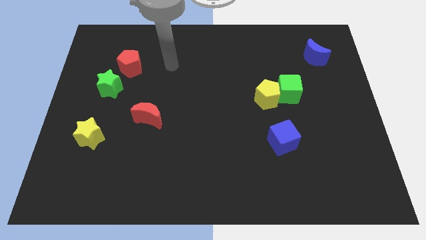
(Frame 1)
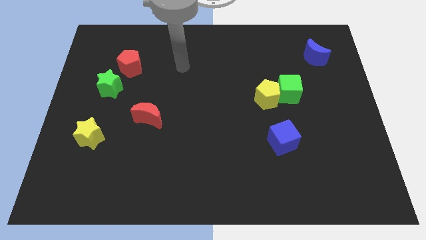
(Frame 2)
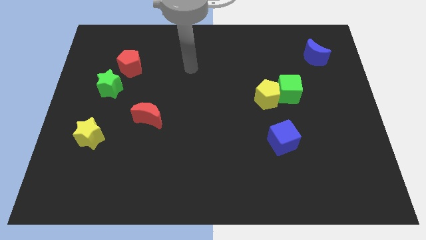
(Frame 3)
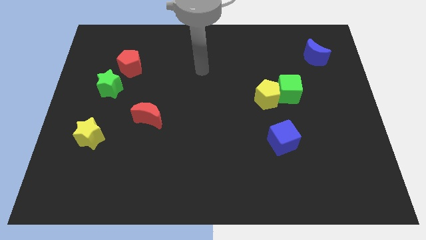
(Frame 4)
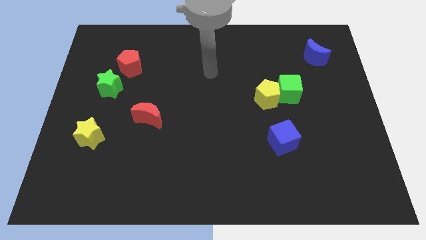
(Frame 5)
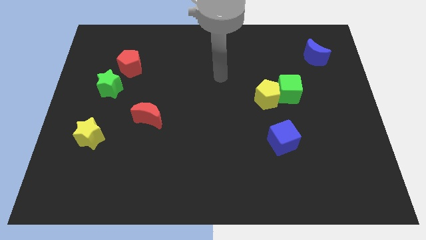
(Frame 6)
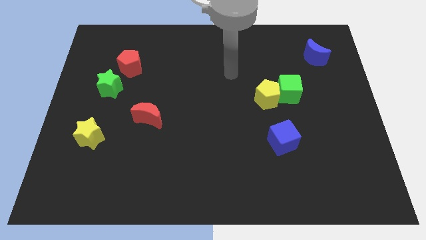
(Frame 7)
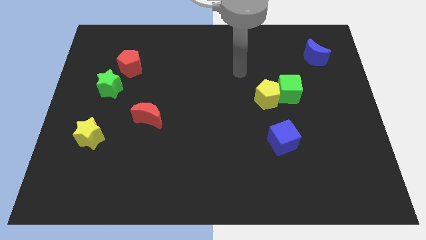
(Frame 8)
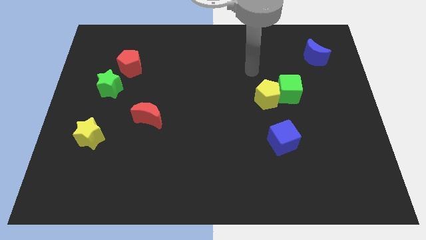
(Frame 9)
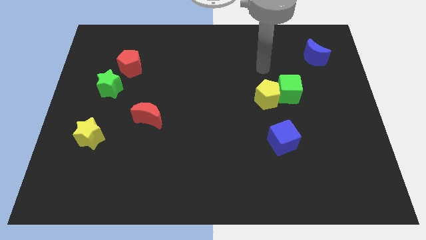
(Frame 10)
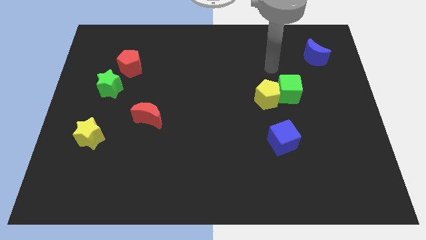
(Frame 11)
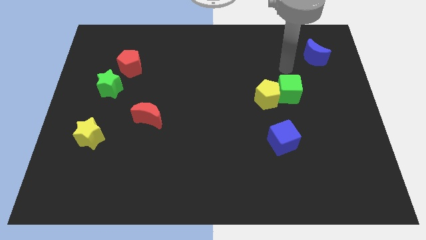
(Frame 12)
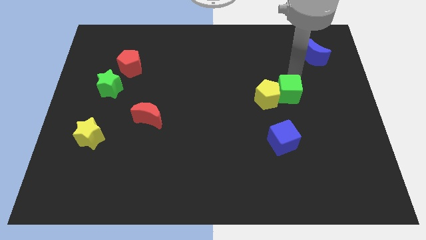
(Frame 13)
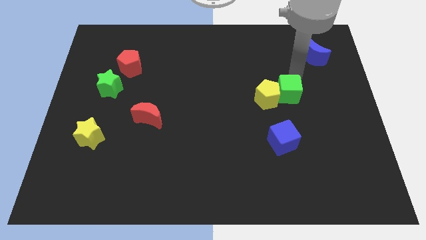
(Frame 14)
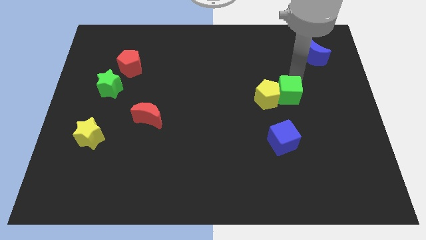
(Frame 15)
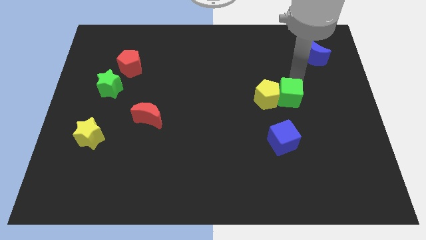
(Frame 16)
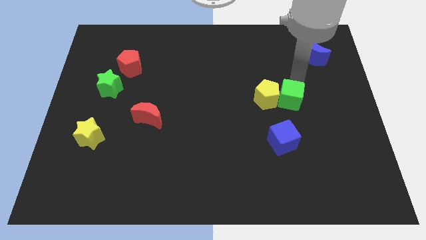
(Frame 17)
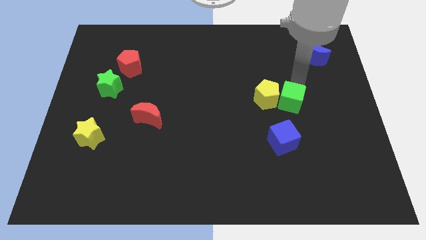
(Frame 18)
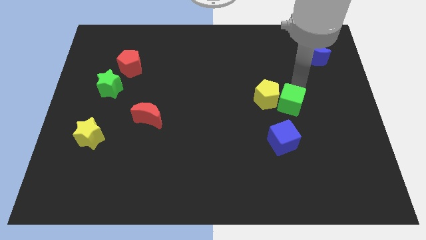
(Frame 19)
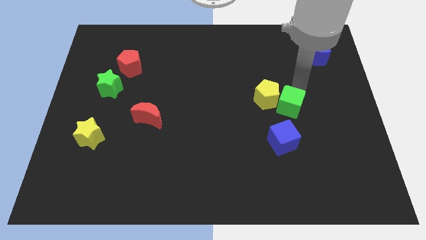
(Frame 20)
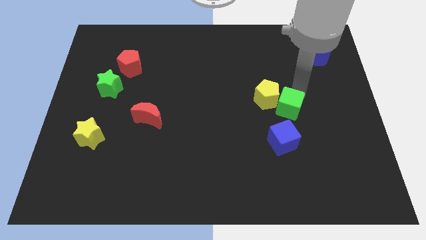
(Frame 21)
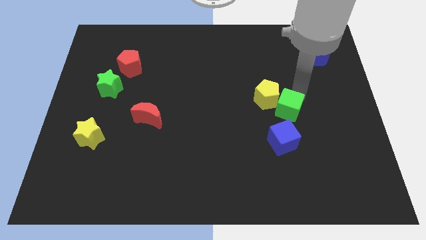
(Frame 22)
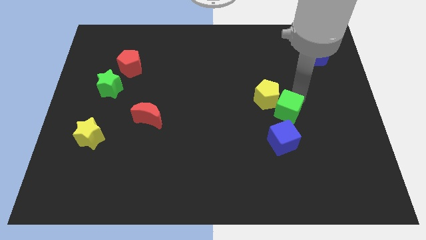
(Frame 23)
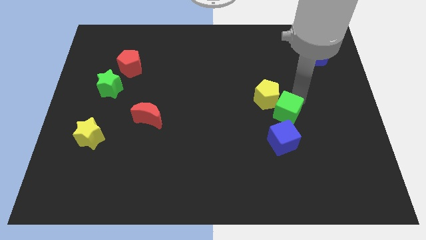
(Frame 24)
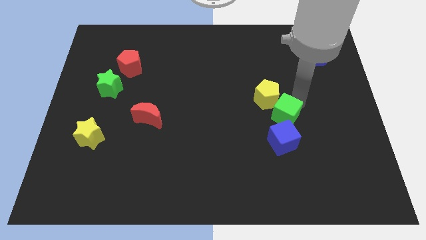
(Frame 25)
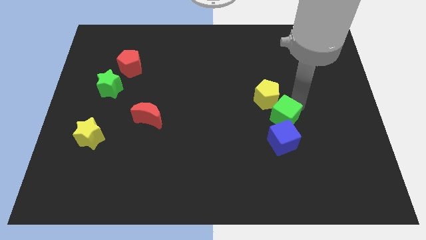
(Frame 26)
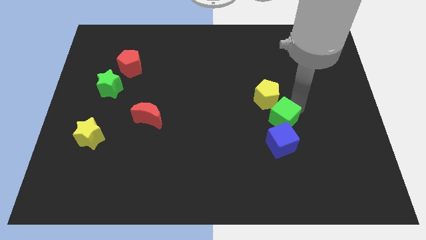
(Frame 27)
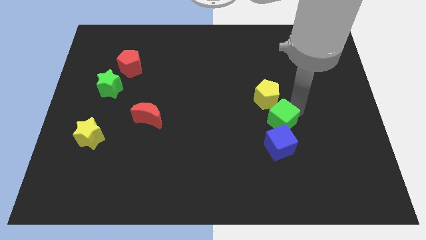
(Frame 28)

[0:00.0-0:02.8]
slide the green cube a little diagonally down and left

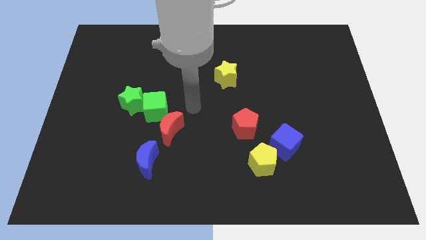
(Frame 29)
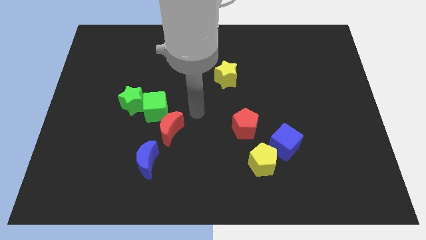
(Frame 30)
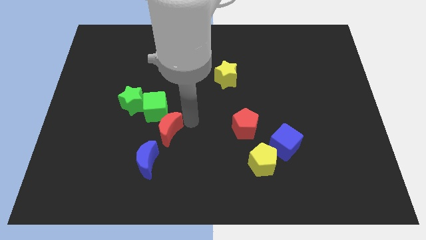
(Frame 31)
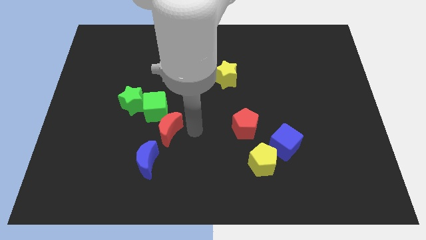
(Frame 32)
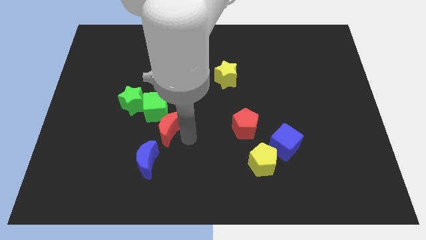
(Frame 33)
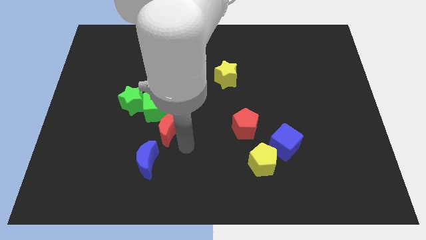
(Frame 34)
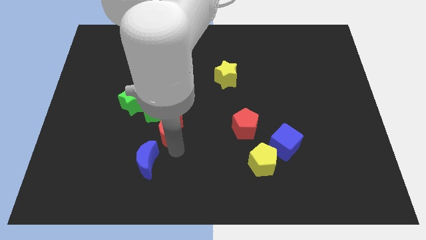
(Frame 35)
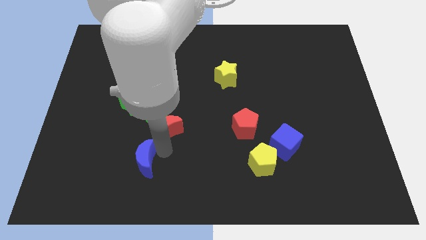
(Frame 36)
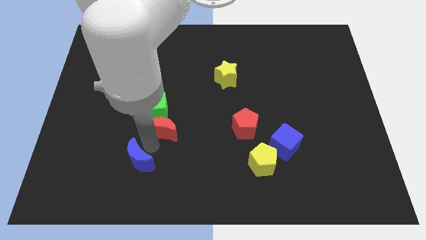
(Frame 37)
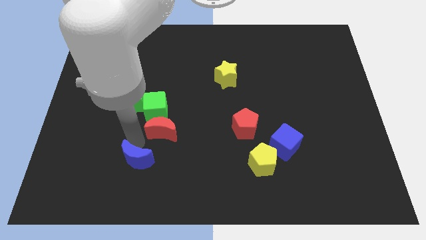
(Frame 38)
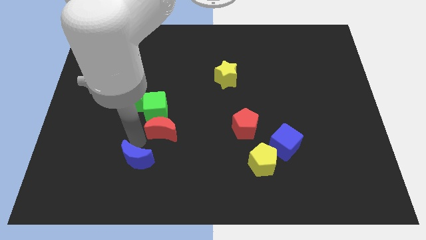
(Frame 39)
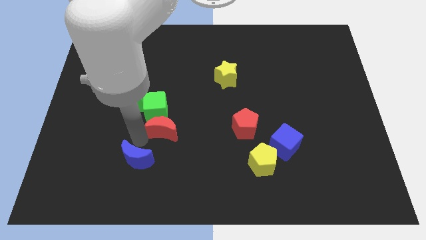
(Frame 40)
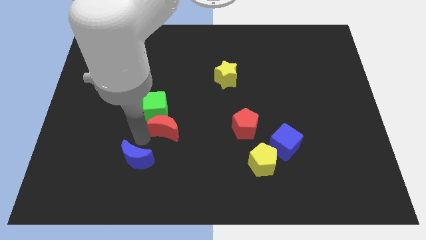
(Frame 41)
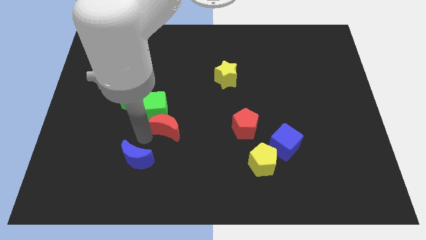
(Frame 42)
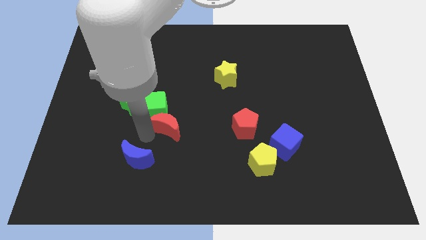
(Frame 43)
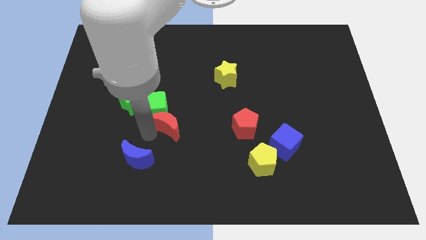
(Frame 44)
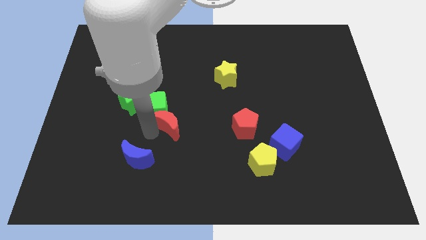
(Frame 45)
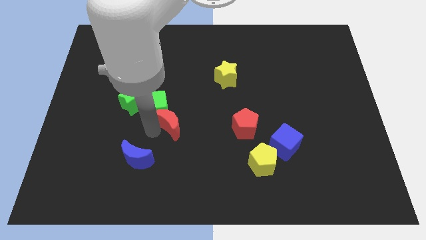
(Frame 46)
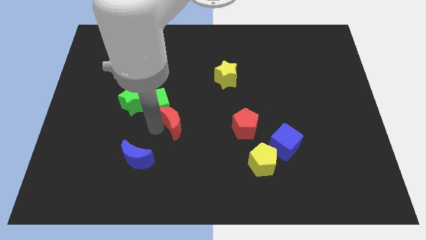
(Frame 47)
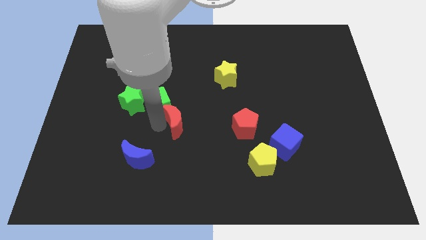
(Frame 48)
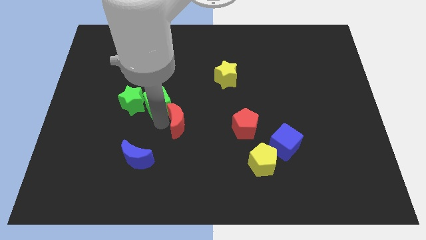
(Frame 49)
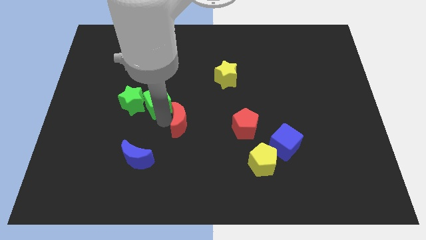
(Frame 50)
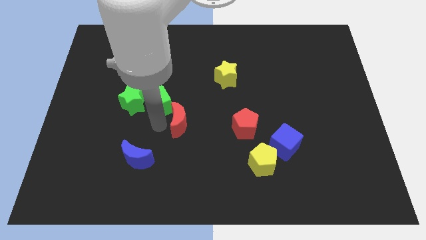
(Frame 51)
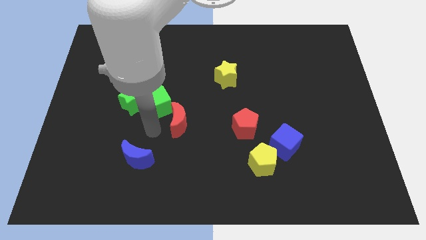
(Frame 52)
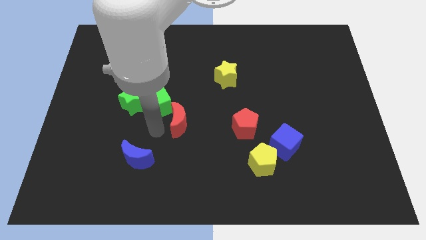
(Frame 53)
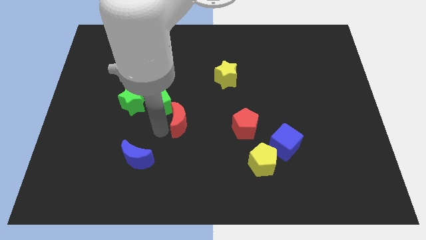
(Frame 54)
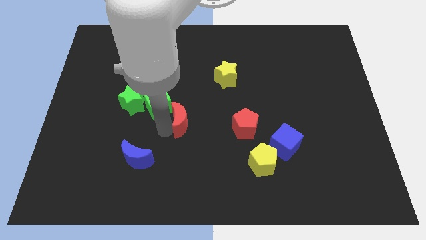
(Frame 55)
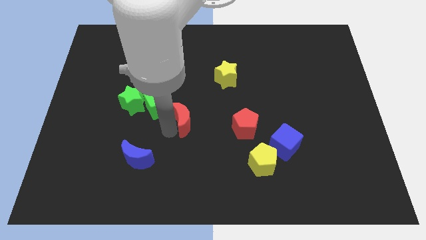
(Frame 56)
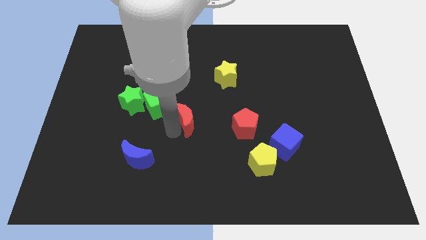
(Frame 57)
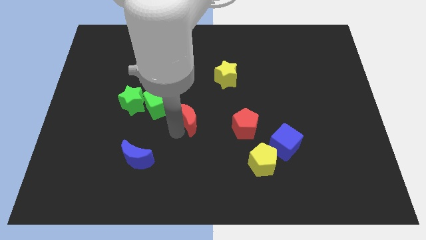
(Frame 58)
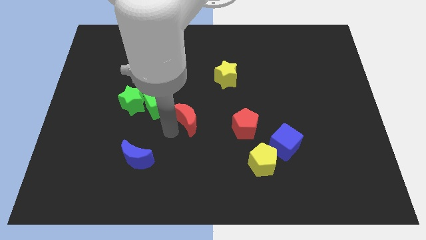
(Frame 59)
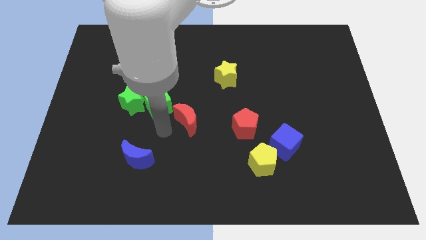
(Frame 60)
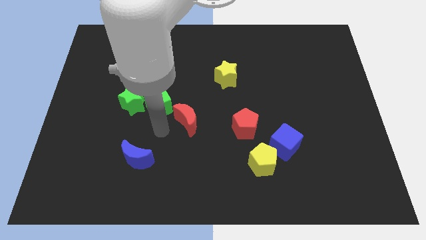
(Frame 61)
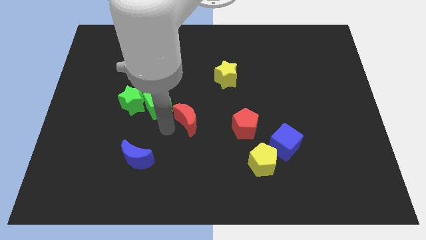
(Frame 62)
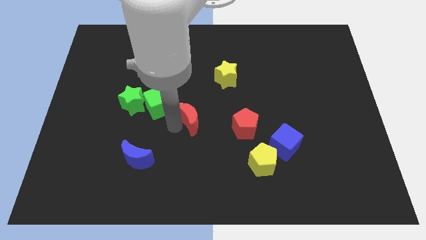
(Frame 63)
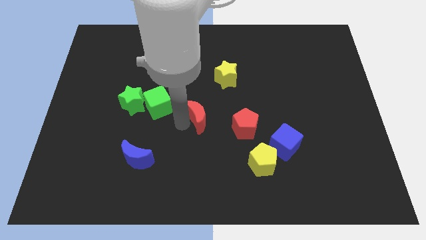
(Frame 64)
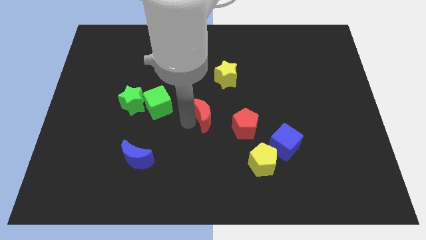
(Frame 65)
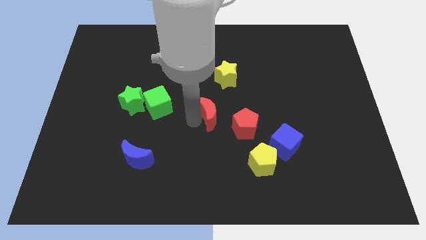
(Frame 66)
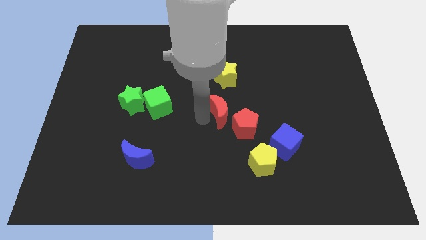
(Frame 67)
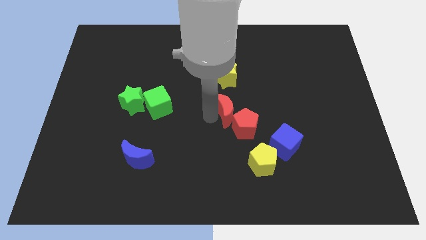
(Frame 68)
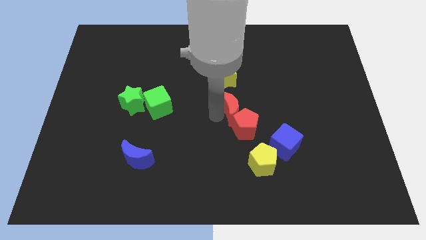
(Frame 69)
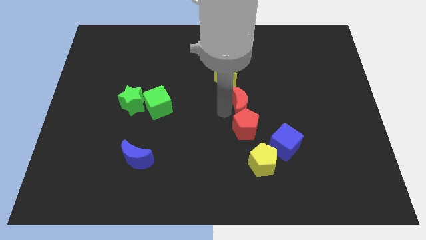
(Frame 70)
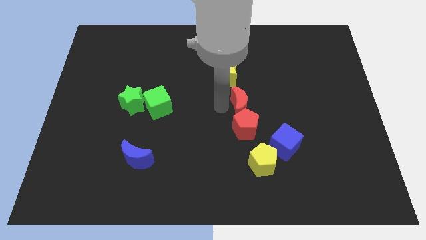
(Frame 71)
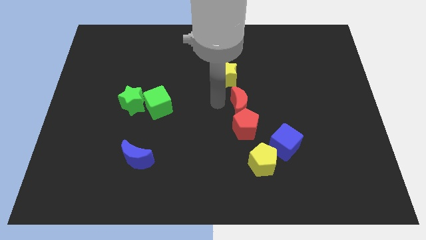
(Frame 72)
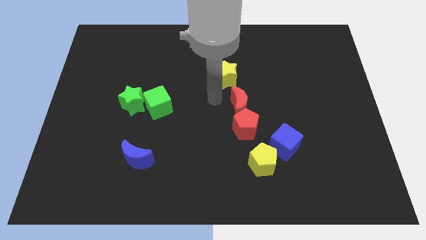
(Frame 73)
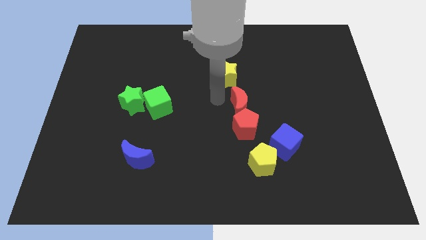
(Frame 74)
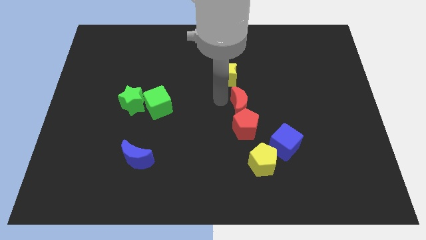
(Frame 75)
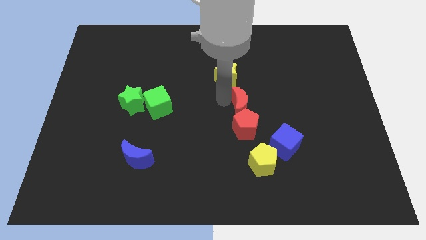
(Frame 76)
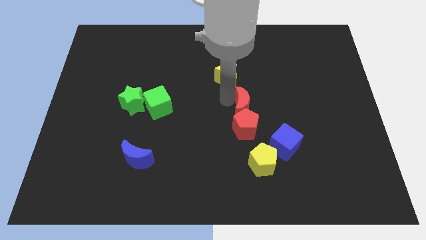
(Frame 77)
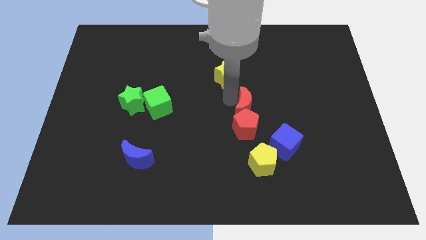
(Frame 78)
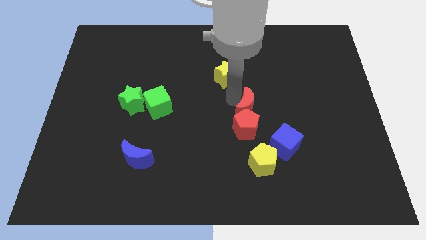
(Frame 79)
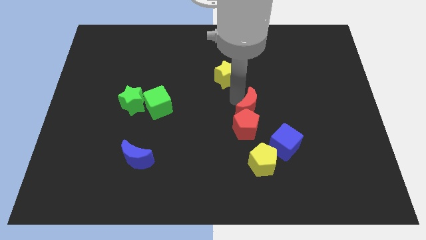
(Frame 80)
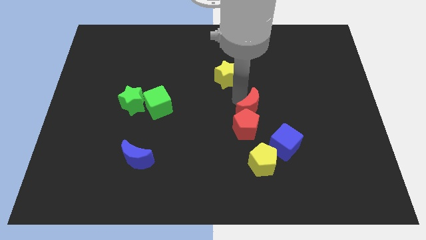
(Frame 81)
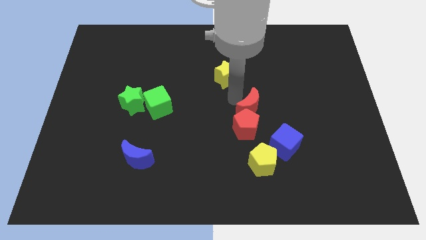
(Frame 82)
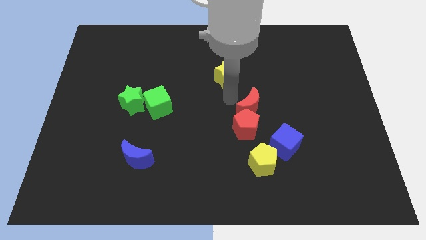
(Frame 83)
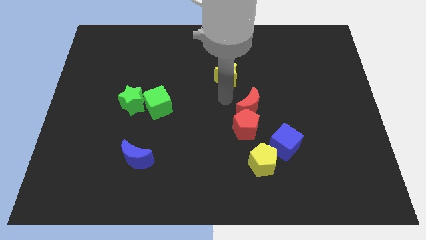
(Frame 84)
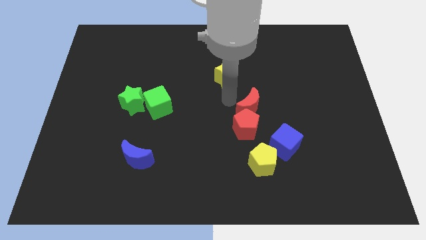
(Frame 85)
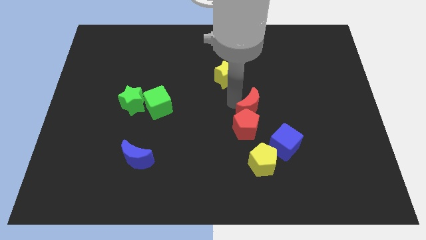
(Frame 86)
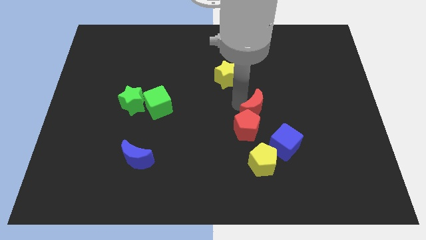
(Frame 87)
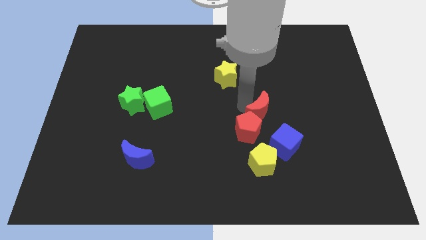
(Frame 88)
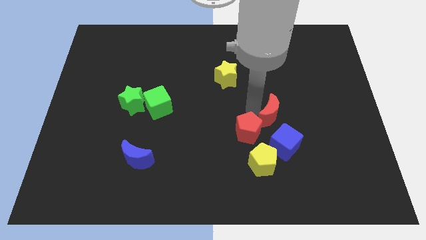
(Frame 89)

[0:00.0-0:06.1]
move the red moon right
